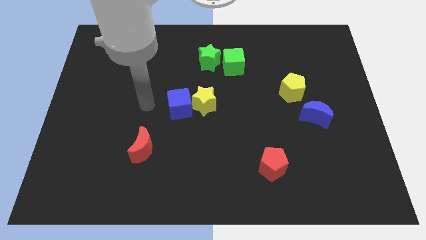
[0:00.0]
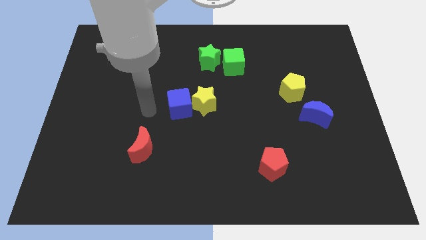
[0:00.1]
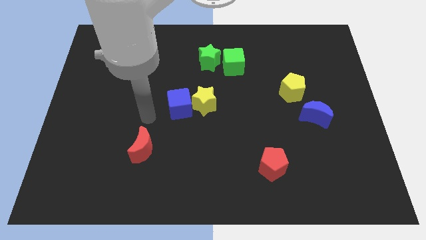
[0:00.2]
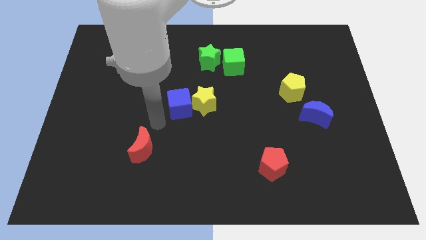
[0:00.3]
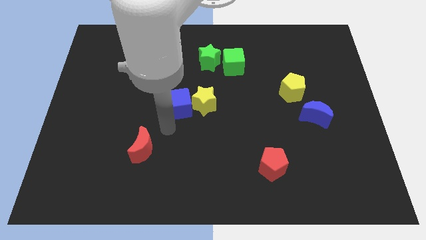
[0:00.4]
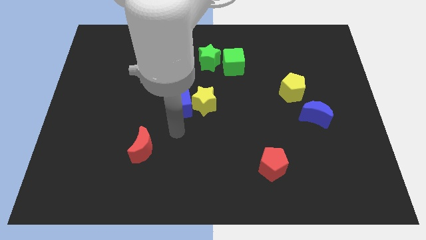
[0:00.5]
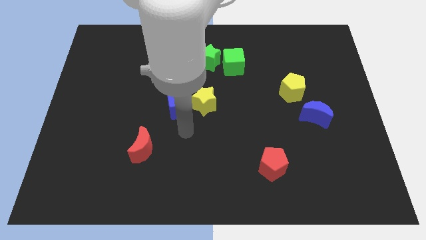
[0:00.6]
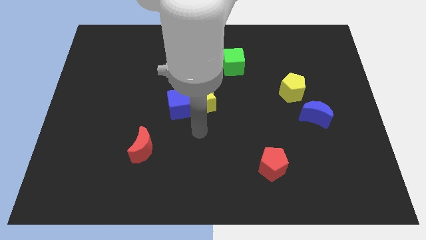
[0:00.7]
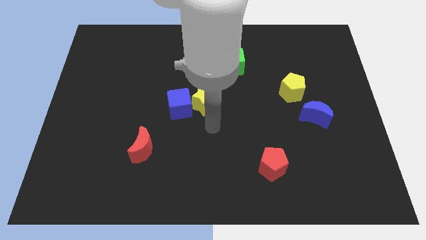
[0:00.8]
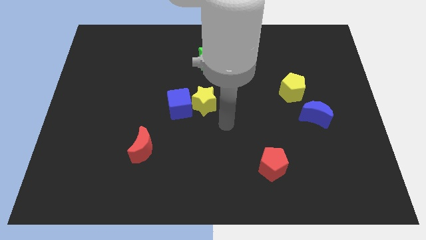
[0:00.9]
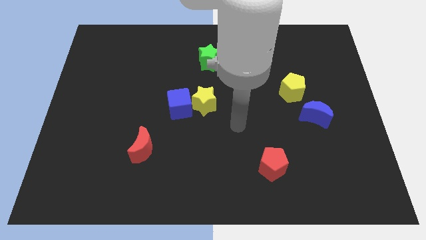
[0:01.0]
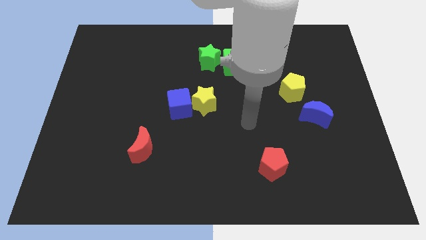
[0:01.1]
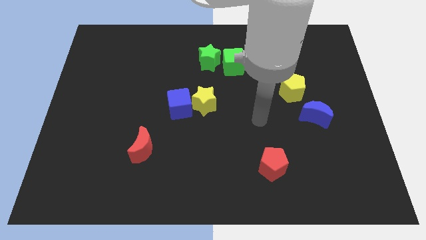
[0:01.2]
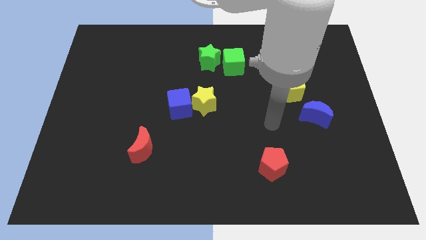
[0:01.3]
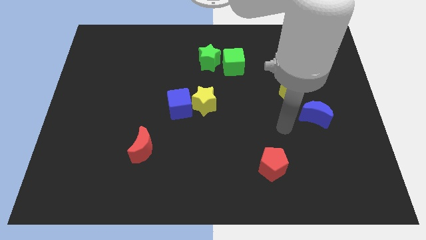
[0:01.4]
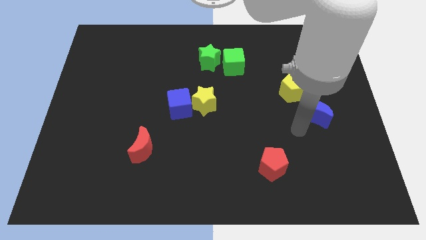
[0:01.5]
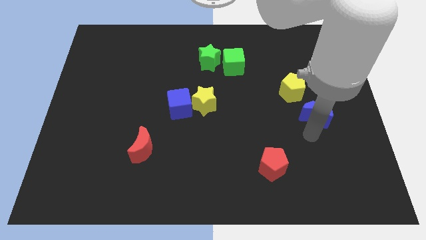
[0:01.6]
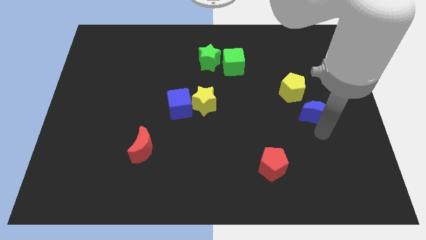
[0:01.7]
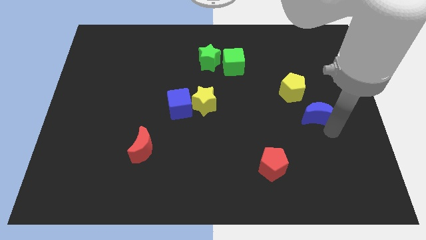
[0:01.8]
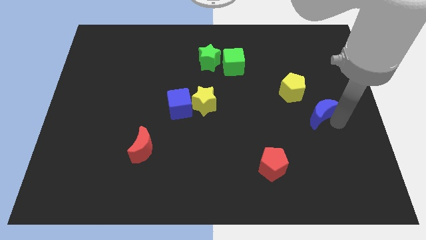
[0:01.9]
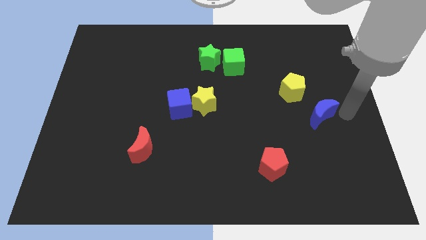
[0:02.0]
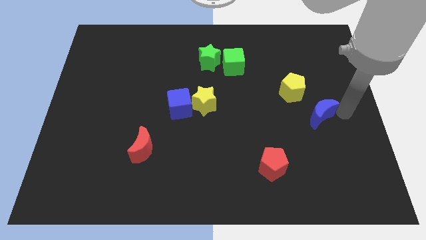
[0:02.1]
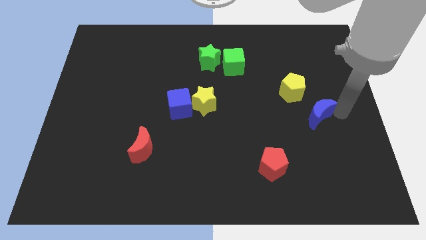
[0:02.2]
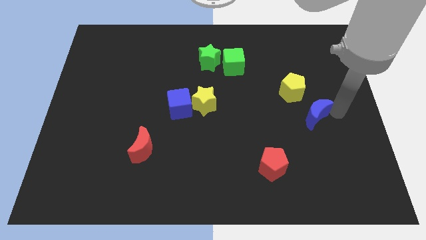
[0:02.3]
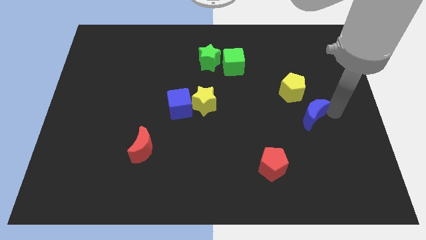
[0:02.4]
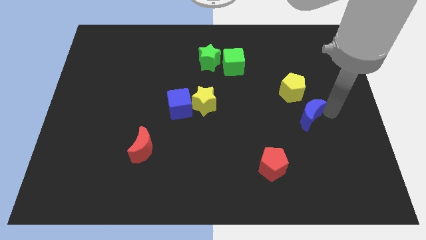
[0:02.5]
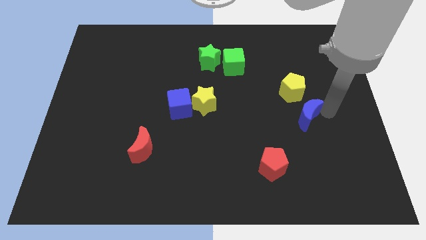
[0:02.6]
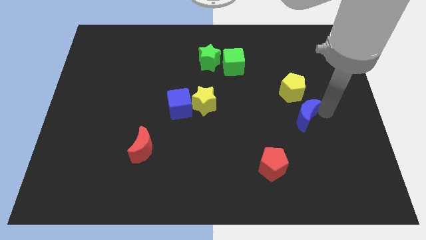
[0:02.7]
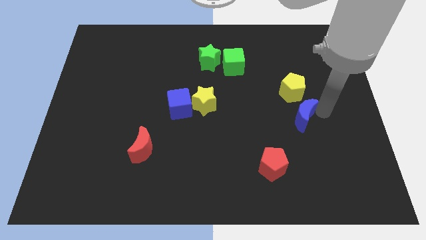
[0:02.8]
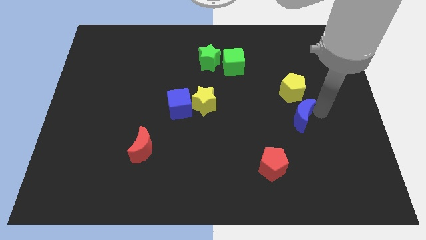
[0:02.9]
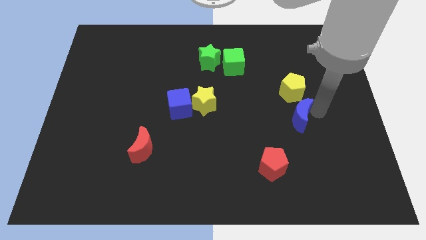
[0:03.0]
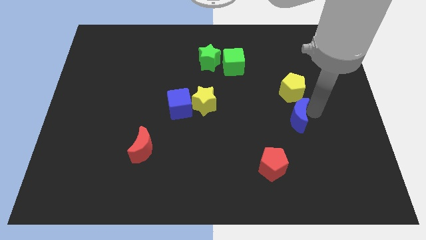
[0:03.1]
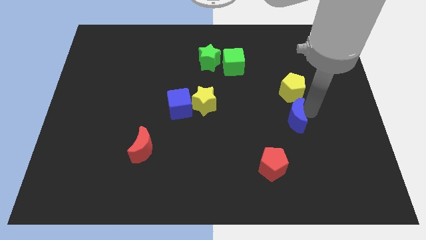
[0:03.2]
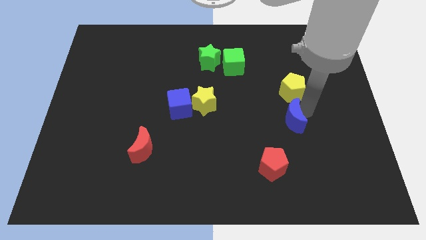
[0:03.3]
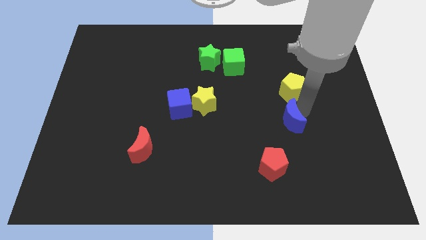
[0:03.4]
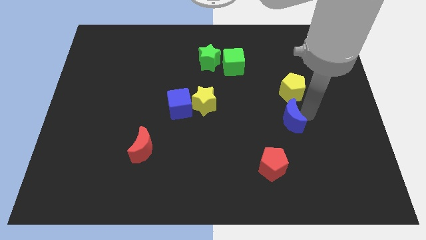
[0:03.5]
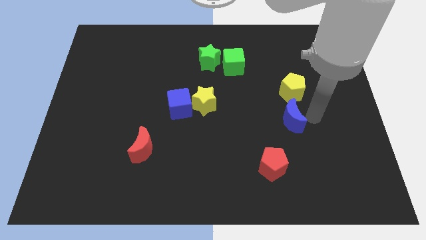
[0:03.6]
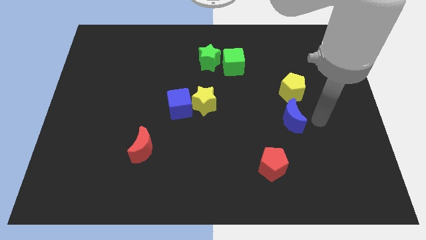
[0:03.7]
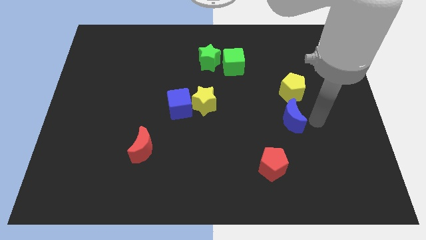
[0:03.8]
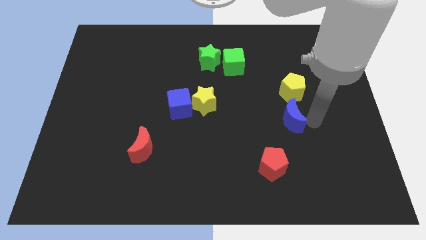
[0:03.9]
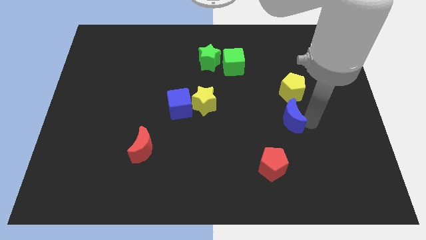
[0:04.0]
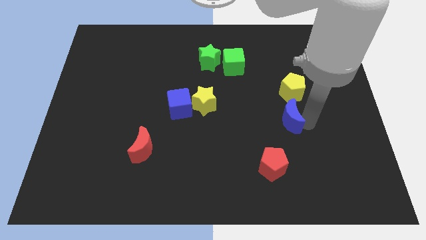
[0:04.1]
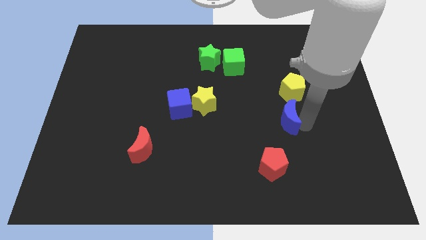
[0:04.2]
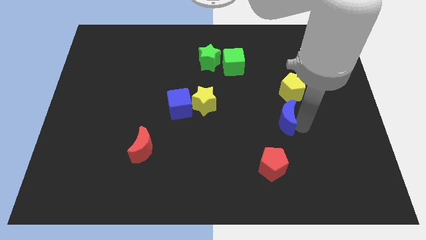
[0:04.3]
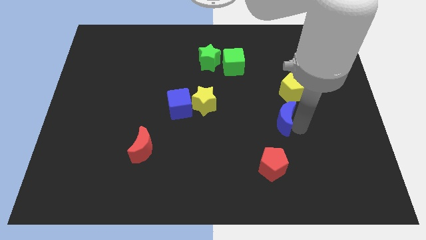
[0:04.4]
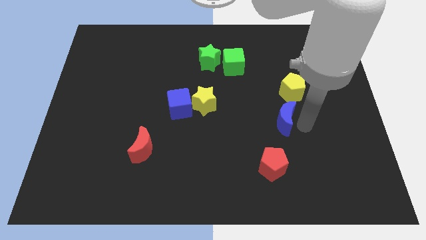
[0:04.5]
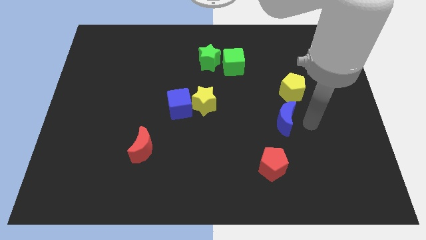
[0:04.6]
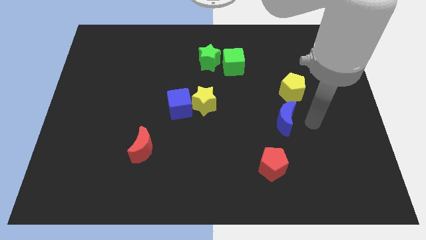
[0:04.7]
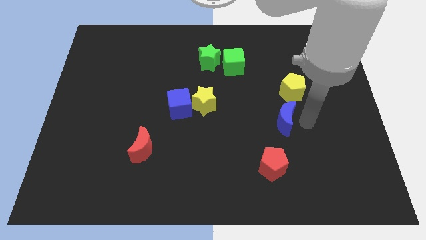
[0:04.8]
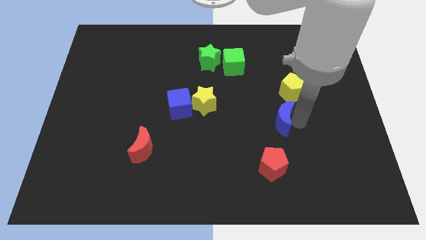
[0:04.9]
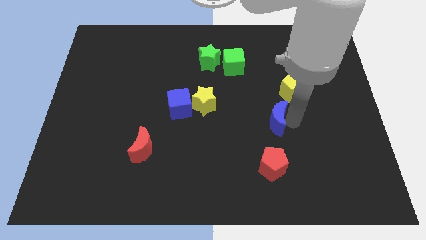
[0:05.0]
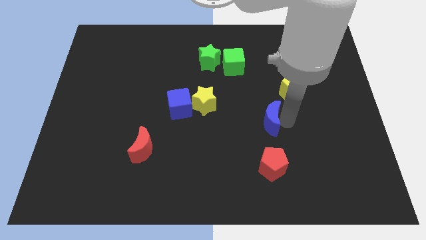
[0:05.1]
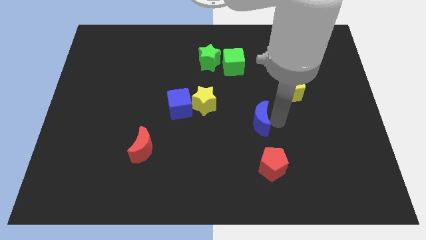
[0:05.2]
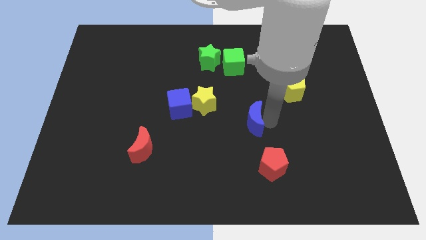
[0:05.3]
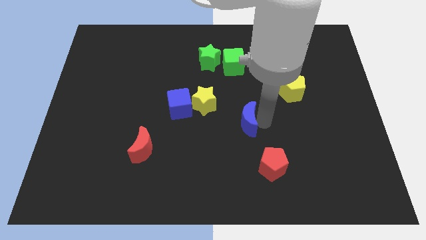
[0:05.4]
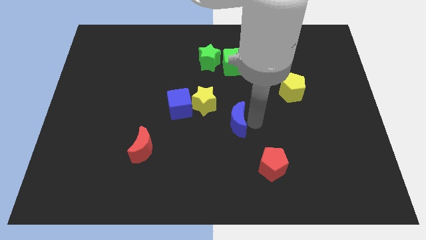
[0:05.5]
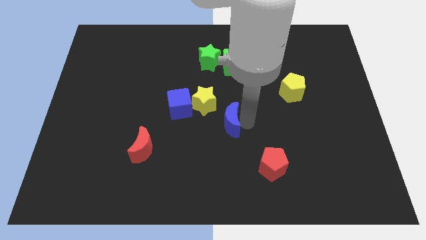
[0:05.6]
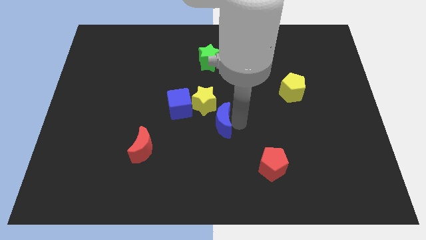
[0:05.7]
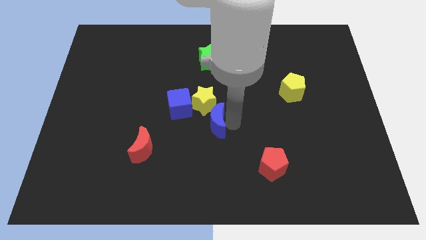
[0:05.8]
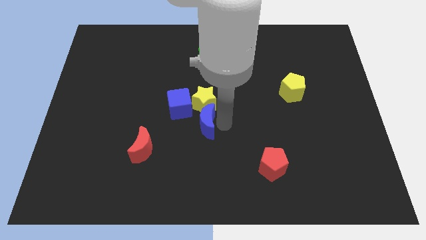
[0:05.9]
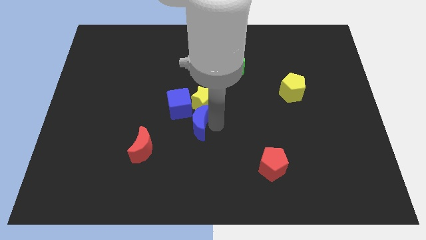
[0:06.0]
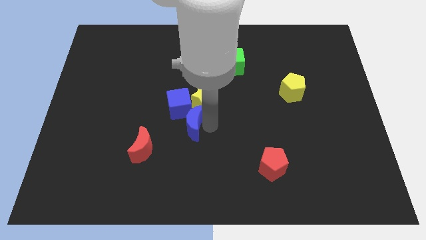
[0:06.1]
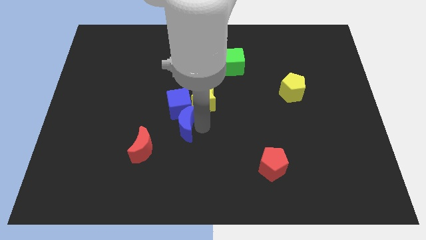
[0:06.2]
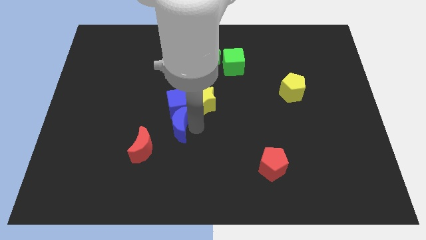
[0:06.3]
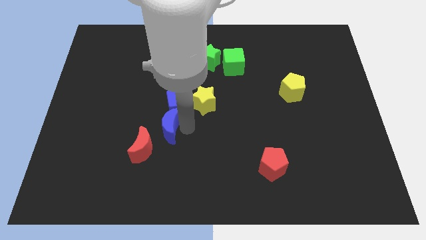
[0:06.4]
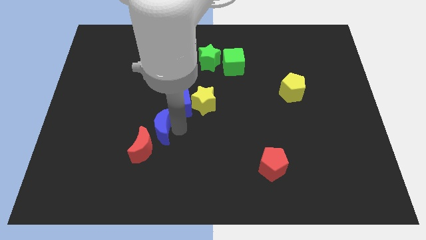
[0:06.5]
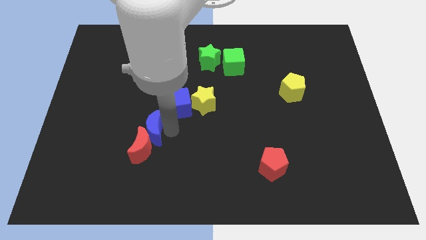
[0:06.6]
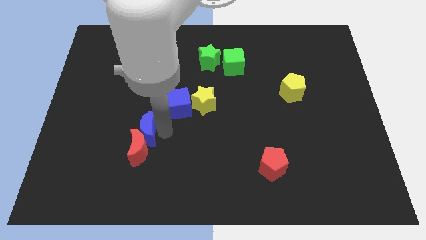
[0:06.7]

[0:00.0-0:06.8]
put the blue moon to the top left of the red moon

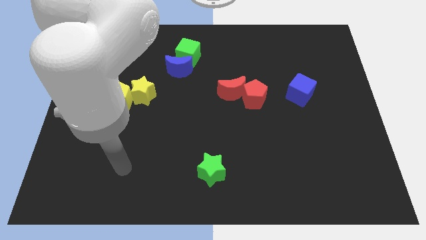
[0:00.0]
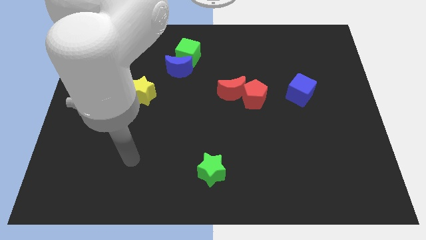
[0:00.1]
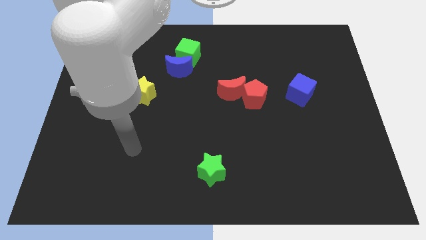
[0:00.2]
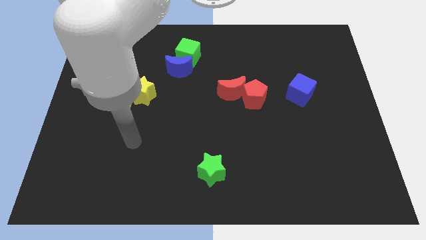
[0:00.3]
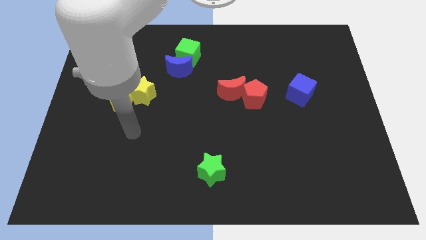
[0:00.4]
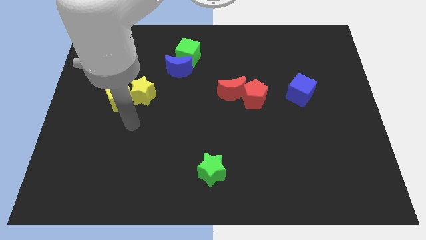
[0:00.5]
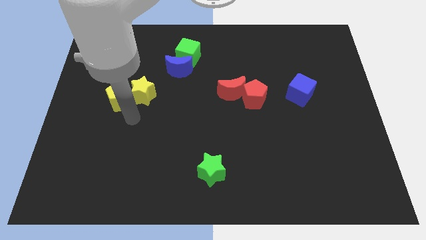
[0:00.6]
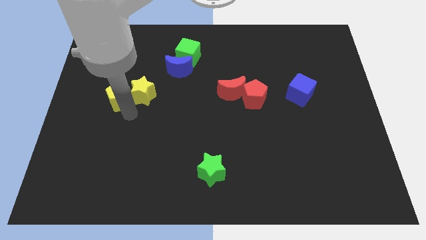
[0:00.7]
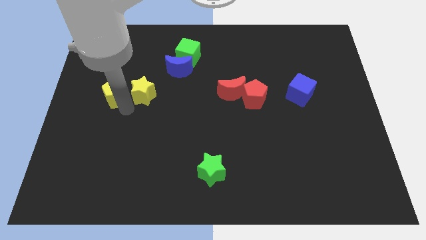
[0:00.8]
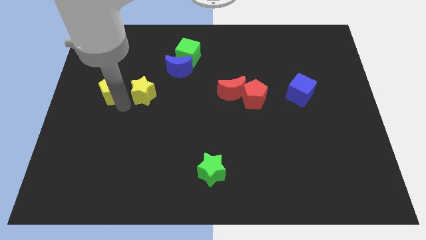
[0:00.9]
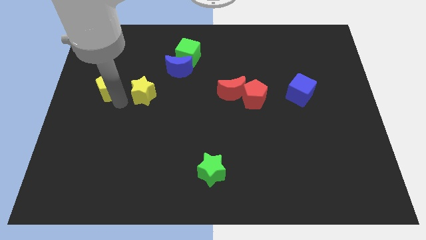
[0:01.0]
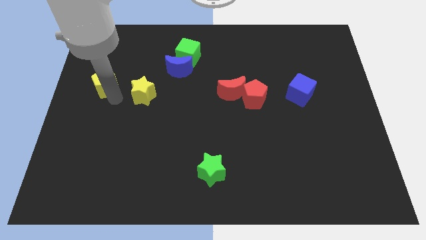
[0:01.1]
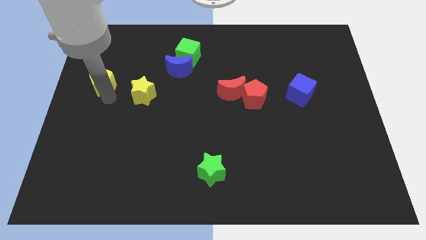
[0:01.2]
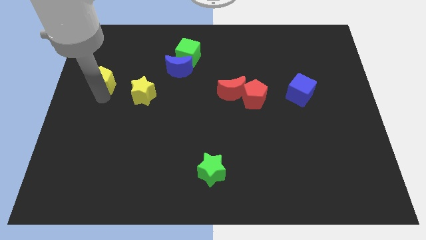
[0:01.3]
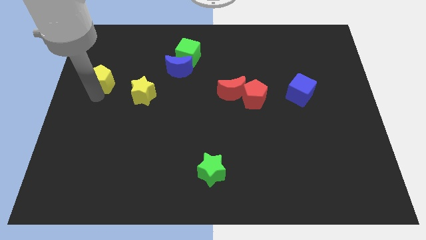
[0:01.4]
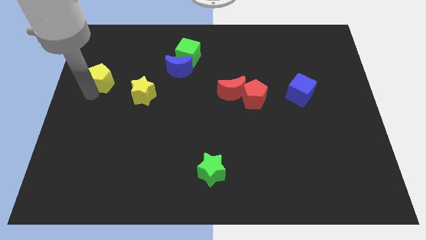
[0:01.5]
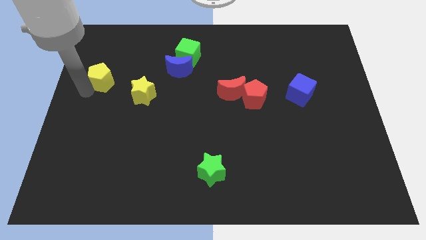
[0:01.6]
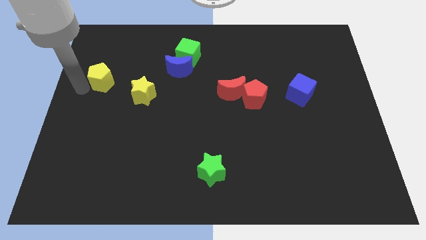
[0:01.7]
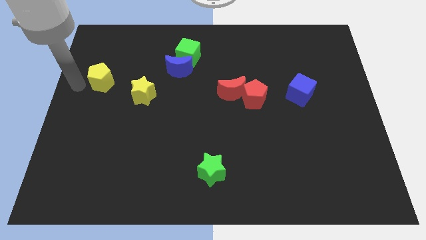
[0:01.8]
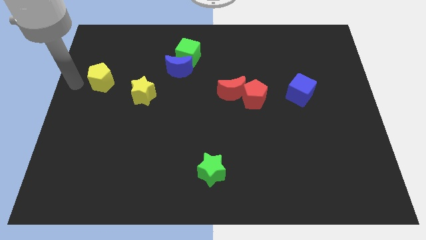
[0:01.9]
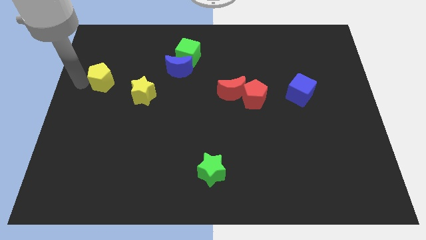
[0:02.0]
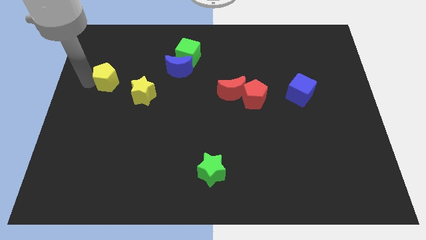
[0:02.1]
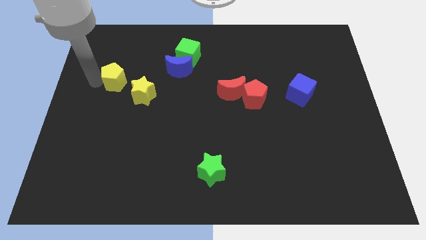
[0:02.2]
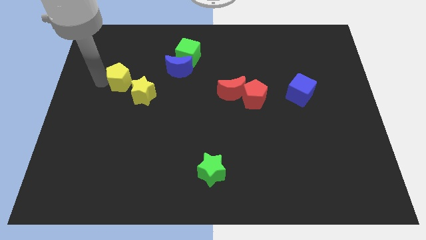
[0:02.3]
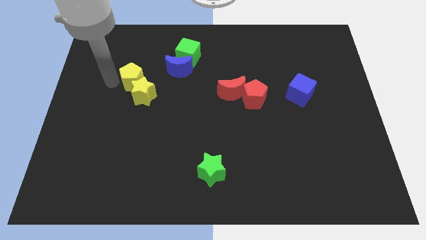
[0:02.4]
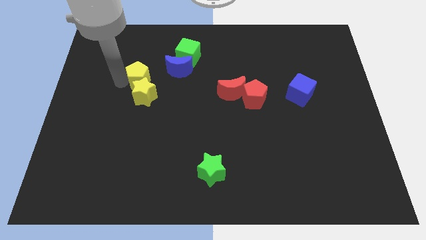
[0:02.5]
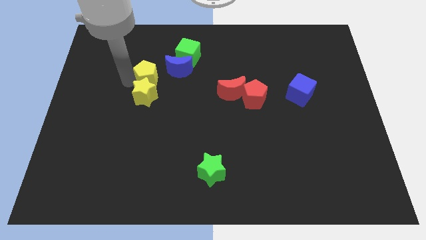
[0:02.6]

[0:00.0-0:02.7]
slide the yellow pentagon to the bottom left side of the green cube
